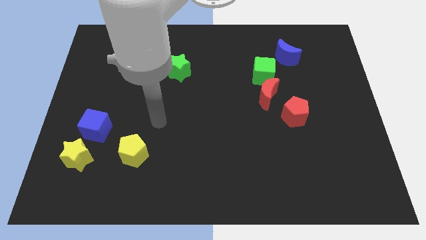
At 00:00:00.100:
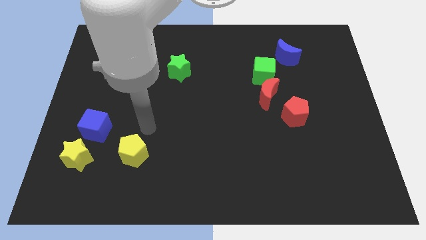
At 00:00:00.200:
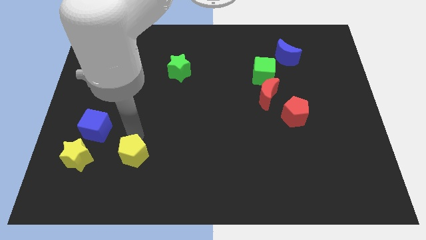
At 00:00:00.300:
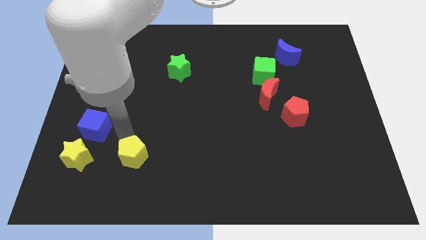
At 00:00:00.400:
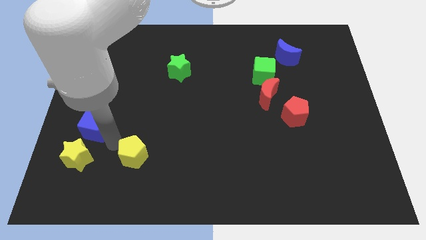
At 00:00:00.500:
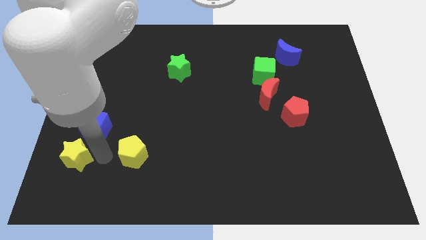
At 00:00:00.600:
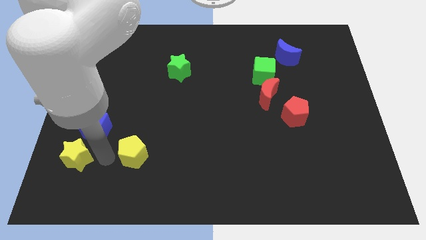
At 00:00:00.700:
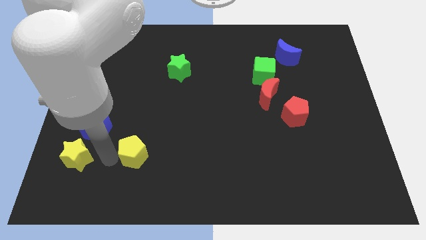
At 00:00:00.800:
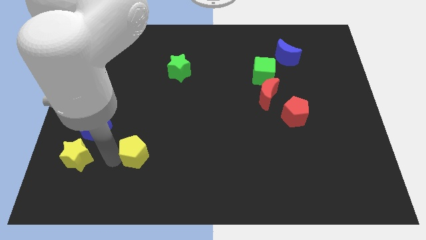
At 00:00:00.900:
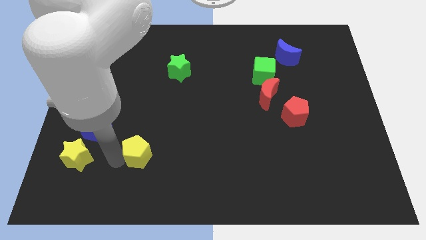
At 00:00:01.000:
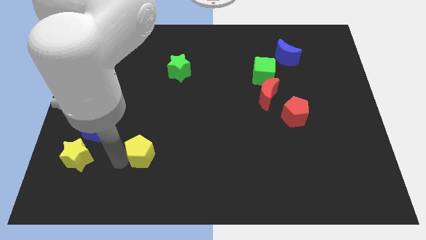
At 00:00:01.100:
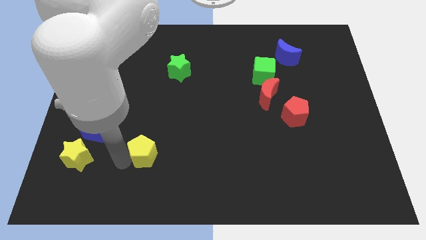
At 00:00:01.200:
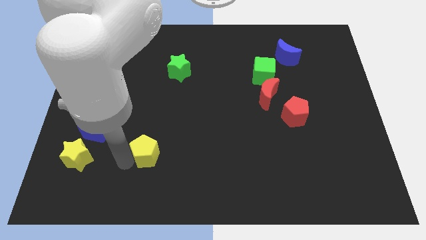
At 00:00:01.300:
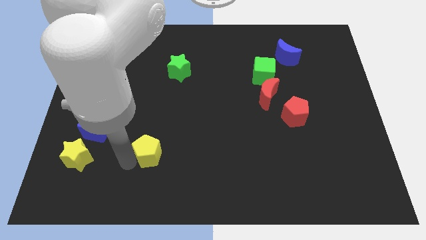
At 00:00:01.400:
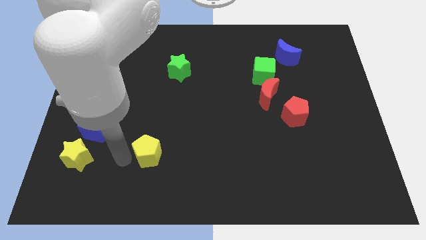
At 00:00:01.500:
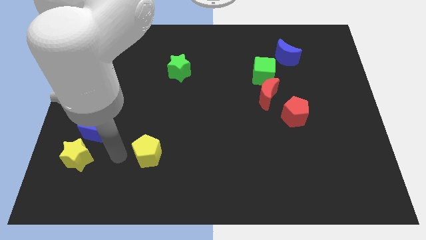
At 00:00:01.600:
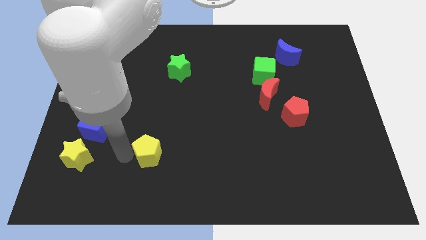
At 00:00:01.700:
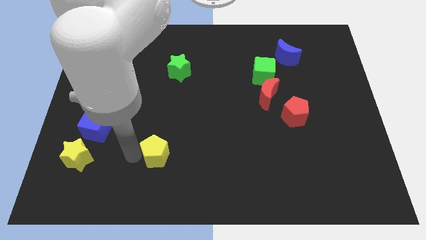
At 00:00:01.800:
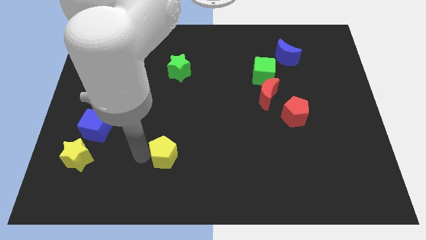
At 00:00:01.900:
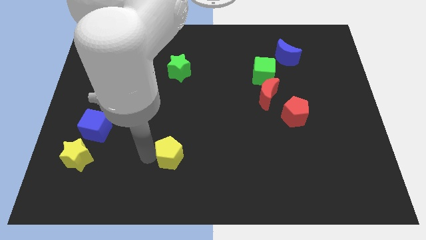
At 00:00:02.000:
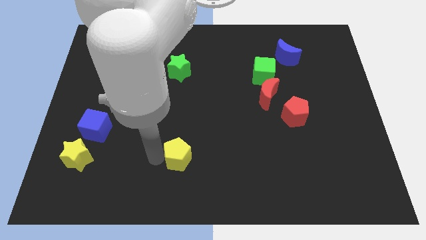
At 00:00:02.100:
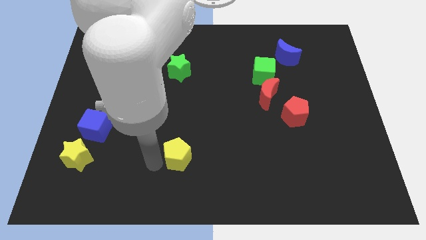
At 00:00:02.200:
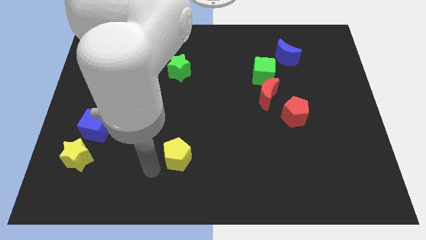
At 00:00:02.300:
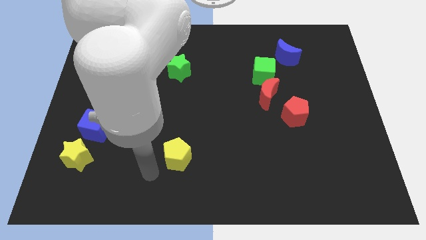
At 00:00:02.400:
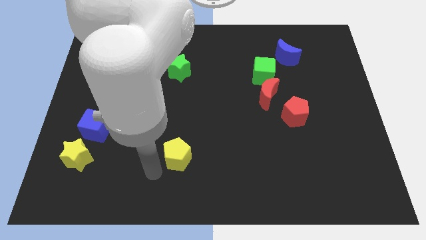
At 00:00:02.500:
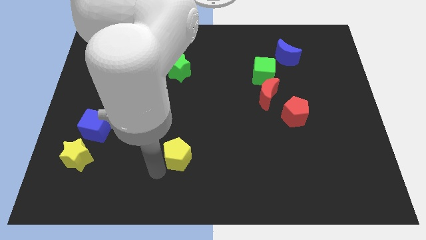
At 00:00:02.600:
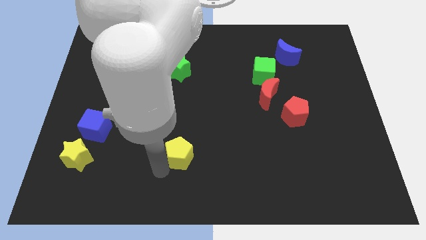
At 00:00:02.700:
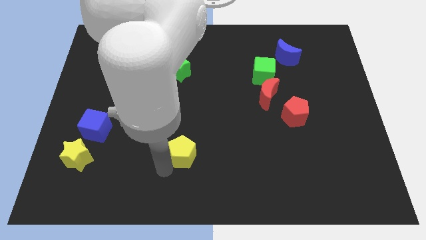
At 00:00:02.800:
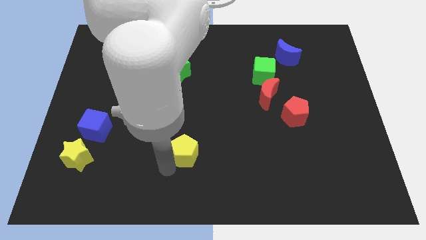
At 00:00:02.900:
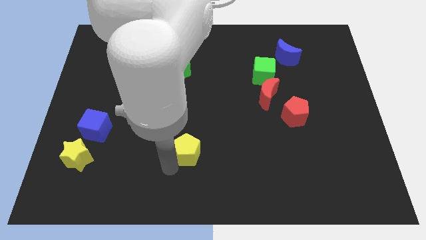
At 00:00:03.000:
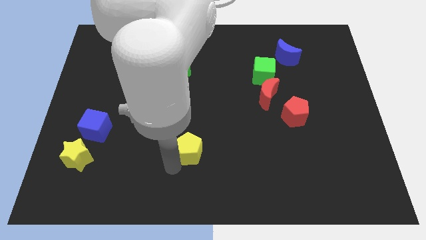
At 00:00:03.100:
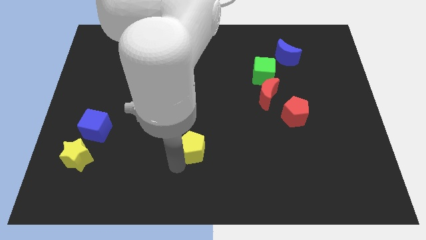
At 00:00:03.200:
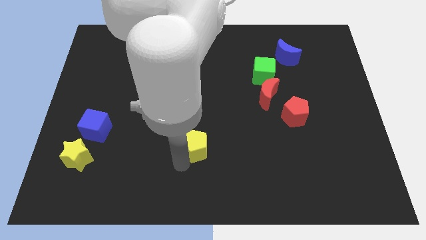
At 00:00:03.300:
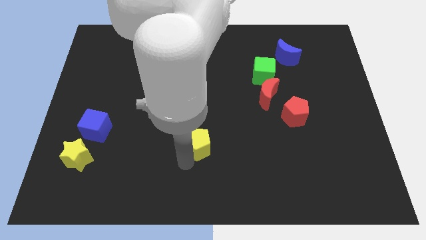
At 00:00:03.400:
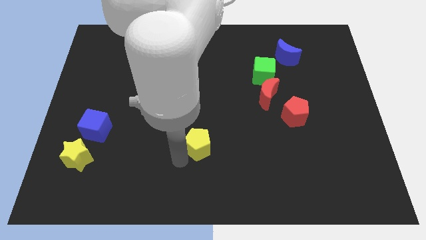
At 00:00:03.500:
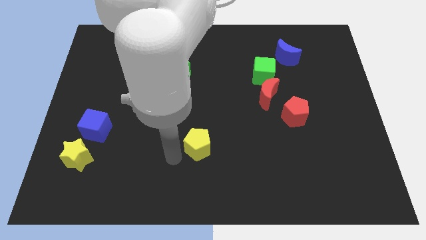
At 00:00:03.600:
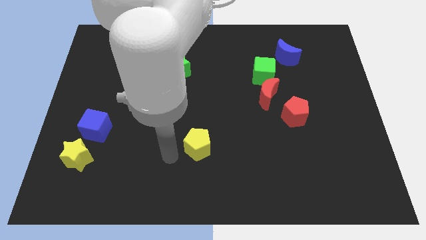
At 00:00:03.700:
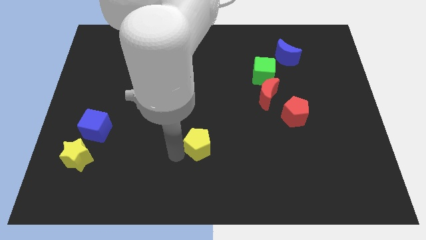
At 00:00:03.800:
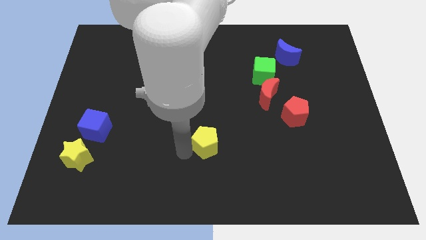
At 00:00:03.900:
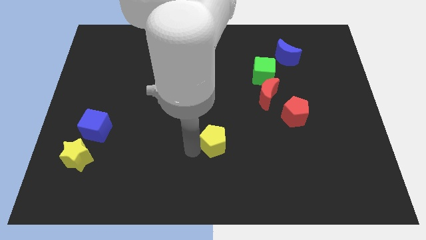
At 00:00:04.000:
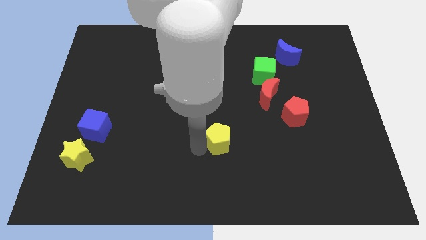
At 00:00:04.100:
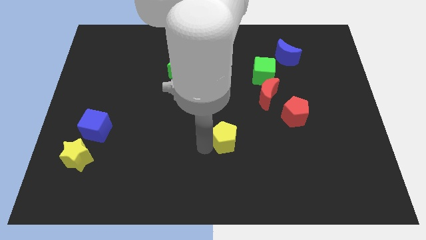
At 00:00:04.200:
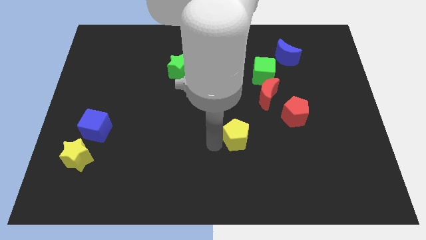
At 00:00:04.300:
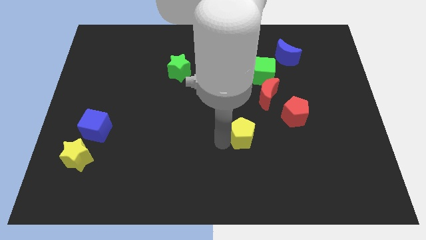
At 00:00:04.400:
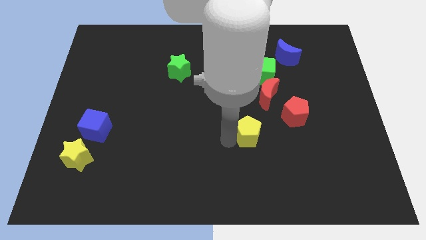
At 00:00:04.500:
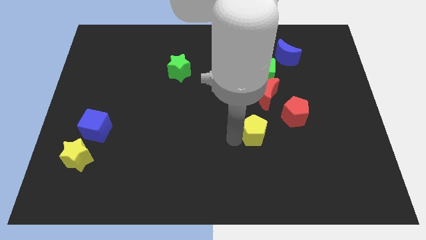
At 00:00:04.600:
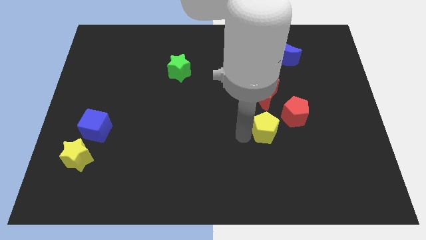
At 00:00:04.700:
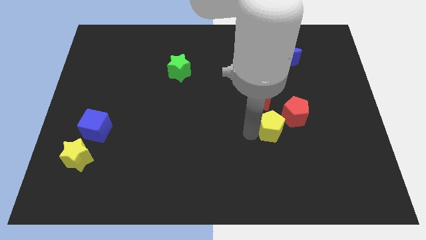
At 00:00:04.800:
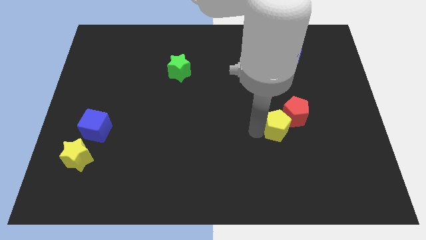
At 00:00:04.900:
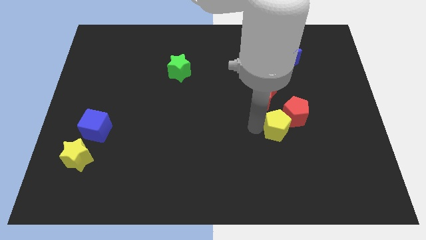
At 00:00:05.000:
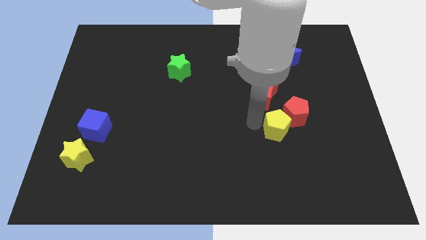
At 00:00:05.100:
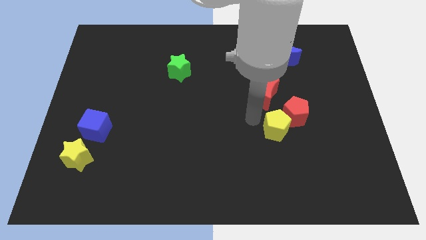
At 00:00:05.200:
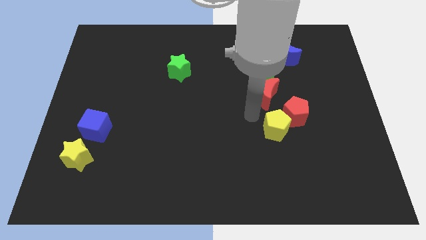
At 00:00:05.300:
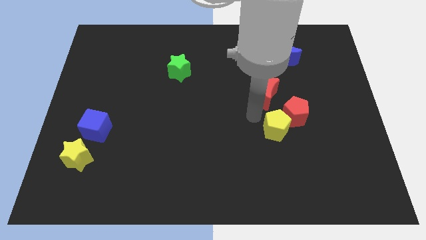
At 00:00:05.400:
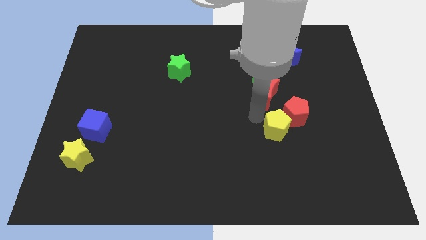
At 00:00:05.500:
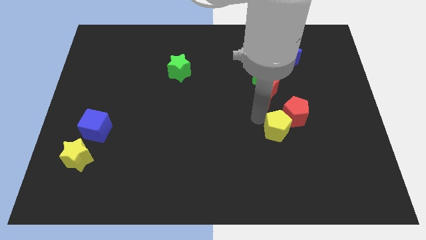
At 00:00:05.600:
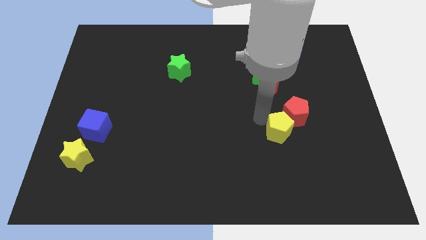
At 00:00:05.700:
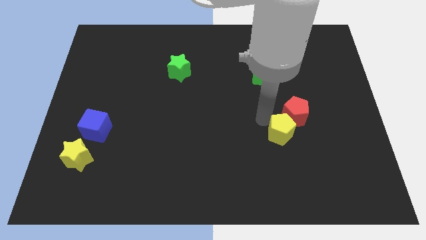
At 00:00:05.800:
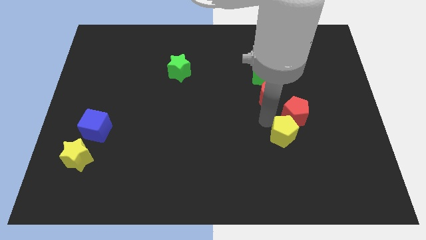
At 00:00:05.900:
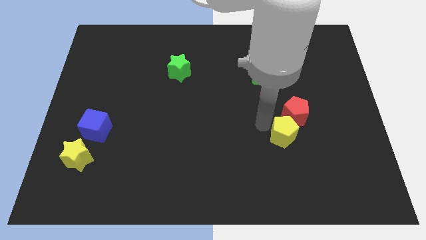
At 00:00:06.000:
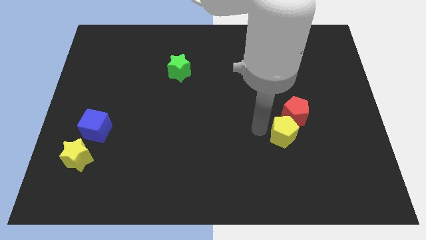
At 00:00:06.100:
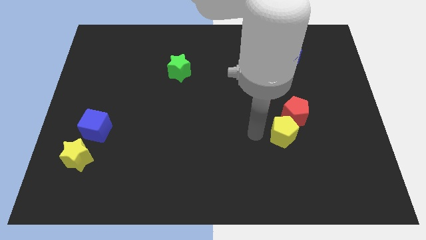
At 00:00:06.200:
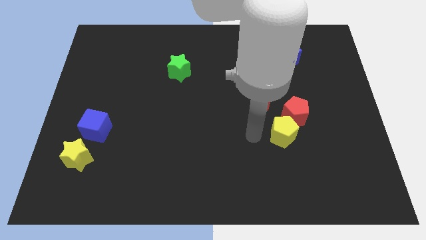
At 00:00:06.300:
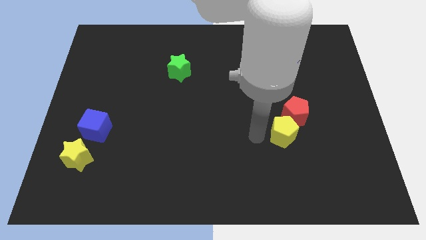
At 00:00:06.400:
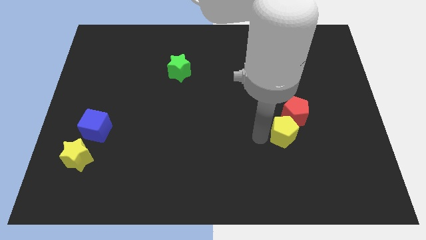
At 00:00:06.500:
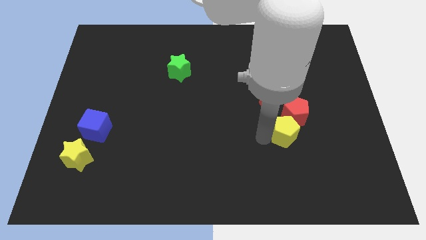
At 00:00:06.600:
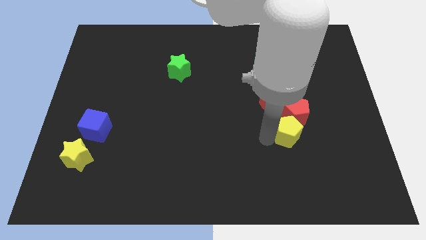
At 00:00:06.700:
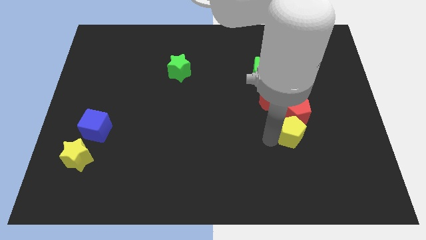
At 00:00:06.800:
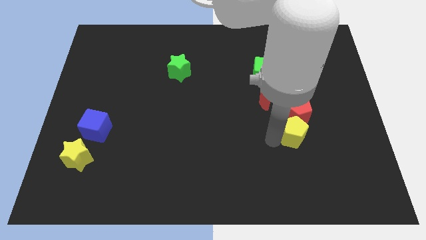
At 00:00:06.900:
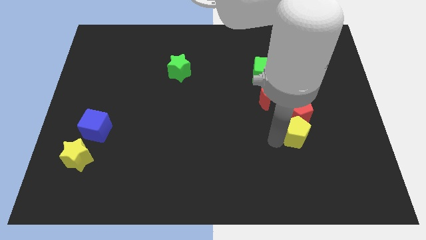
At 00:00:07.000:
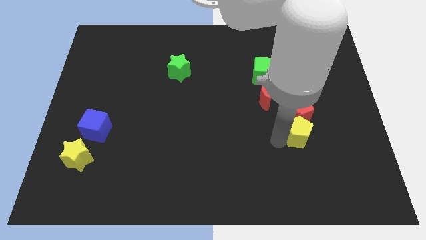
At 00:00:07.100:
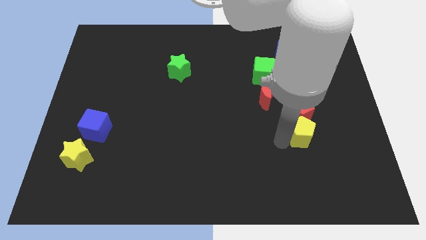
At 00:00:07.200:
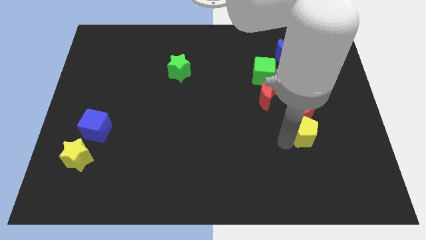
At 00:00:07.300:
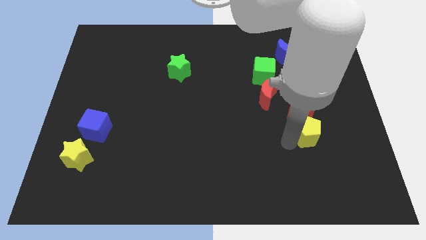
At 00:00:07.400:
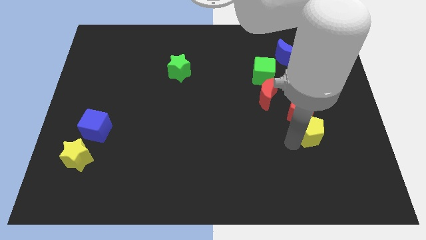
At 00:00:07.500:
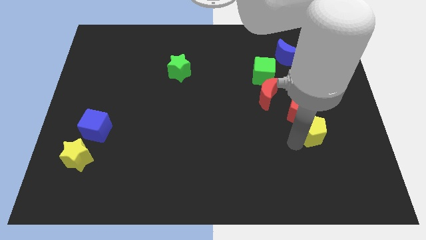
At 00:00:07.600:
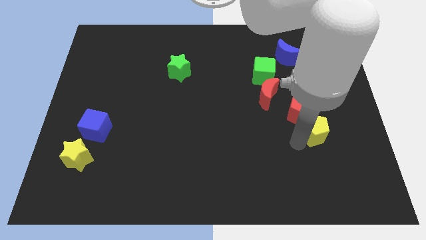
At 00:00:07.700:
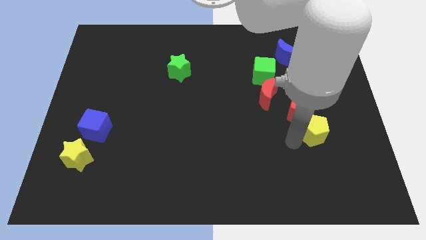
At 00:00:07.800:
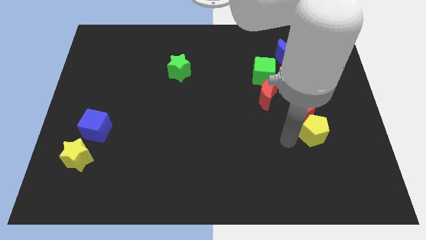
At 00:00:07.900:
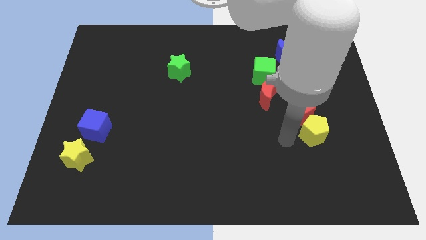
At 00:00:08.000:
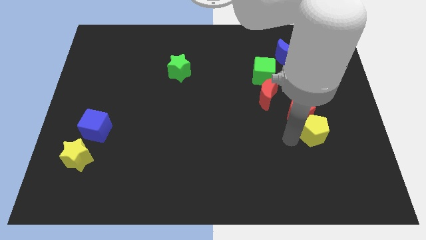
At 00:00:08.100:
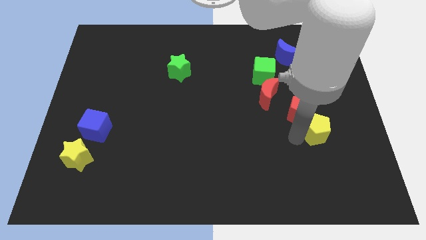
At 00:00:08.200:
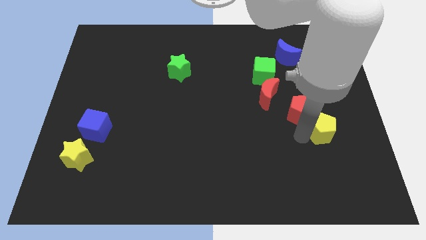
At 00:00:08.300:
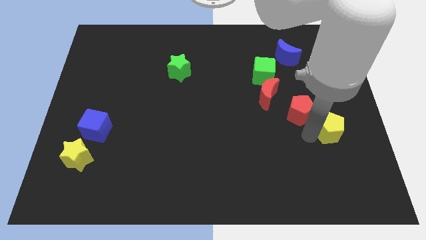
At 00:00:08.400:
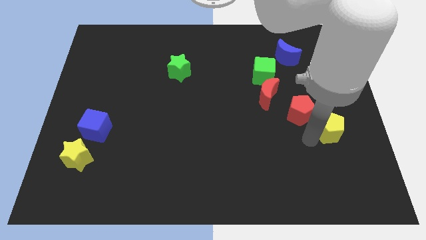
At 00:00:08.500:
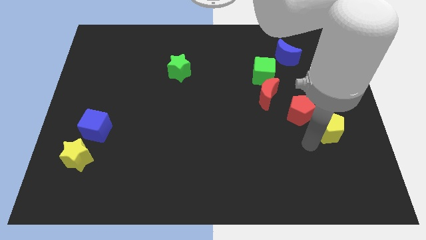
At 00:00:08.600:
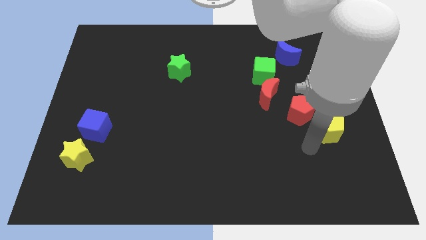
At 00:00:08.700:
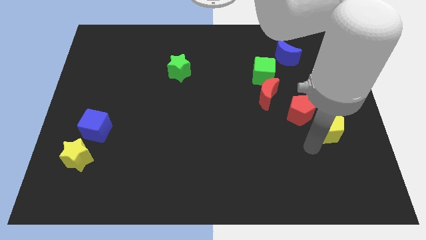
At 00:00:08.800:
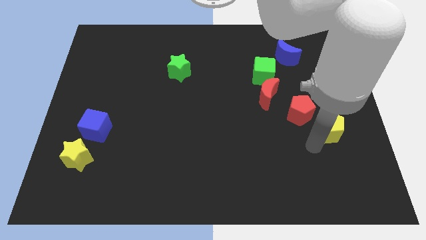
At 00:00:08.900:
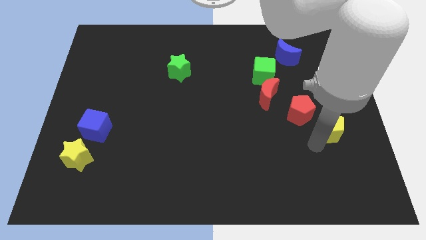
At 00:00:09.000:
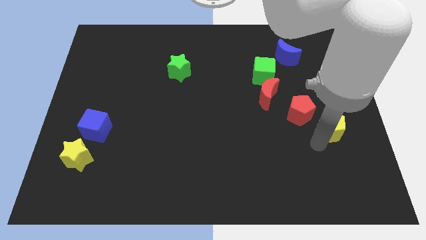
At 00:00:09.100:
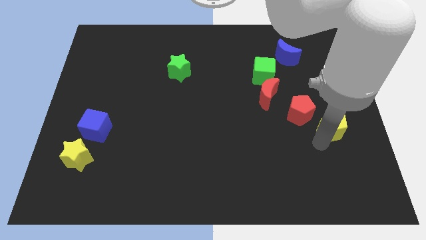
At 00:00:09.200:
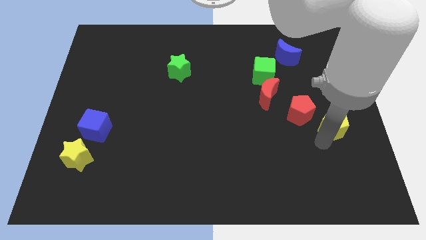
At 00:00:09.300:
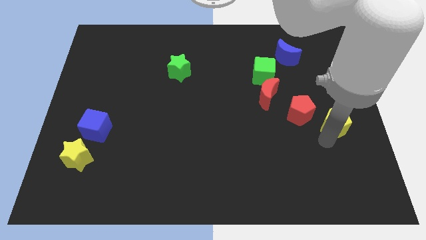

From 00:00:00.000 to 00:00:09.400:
push the yellow pentagon to the center right
